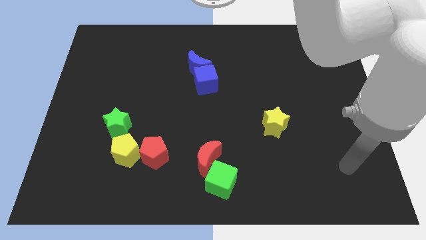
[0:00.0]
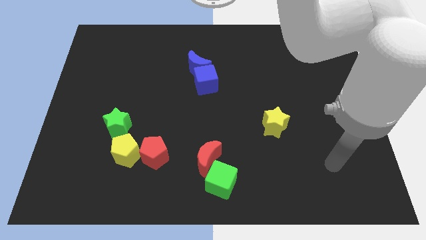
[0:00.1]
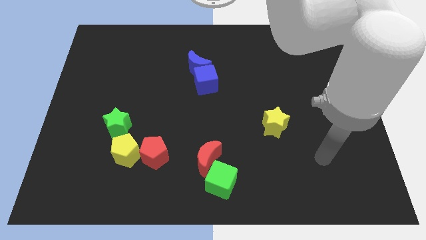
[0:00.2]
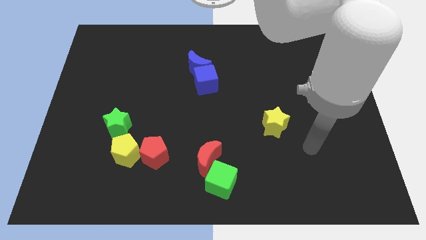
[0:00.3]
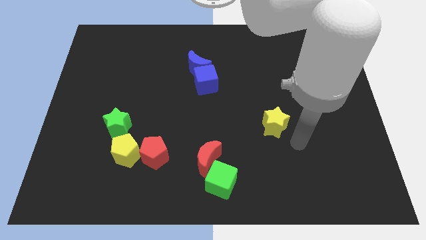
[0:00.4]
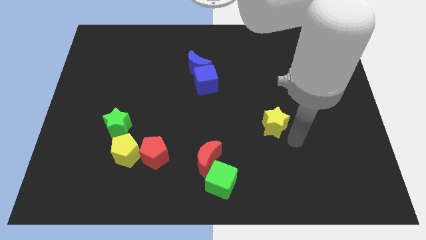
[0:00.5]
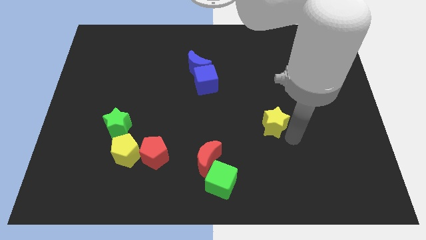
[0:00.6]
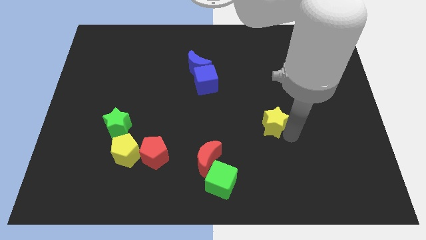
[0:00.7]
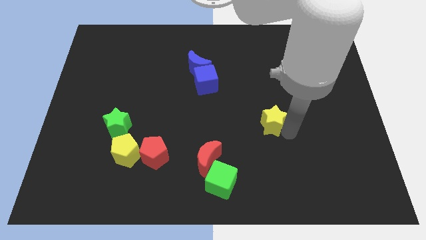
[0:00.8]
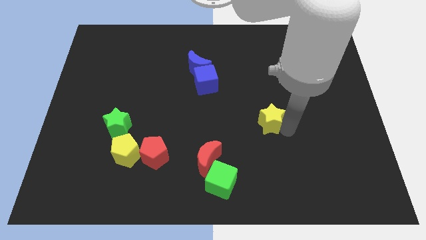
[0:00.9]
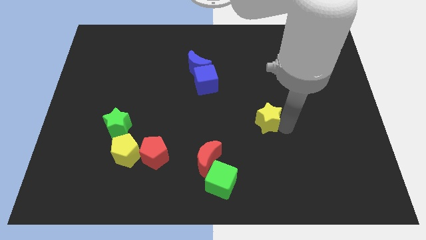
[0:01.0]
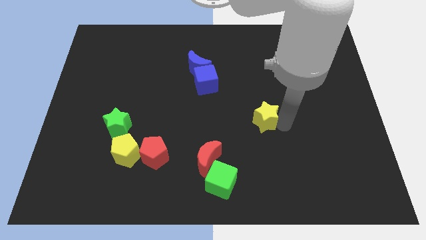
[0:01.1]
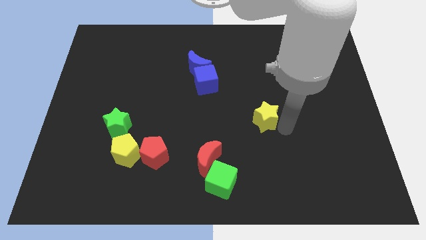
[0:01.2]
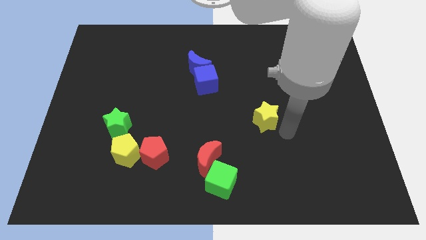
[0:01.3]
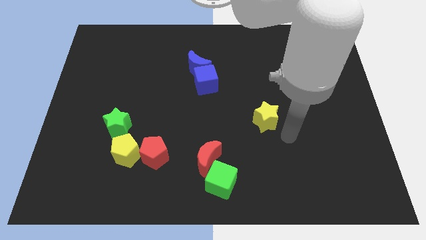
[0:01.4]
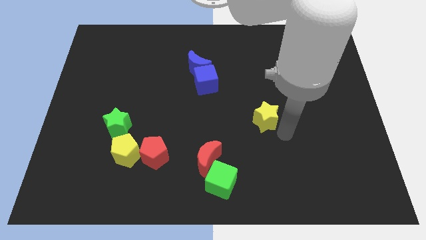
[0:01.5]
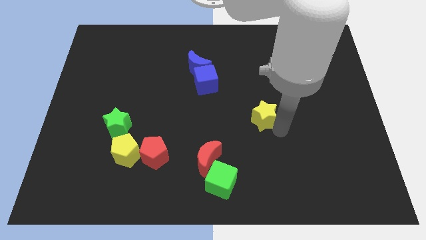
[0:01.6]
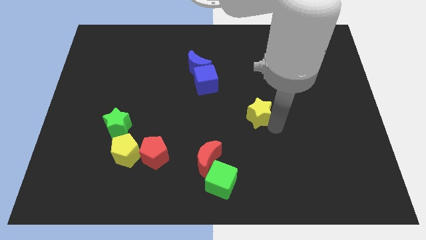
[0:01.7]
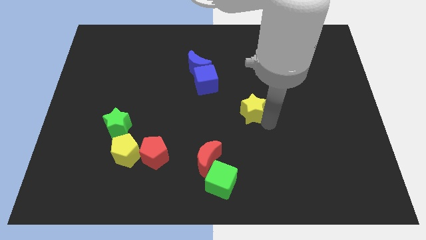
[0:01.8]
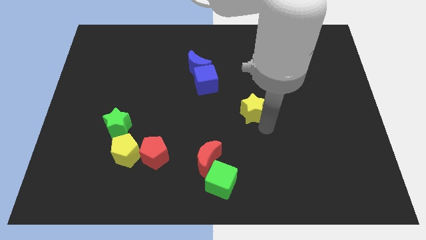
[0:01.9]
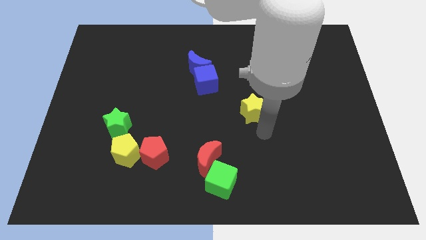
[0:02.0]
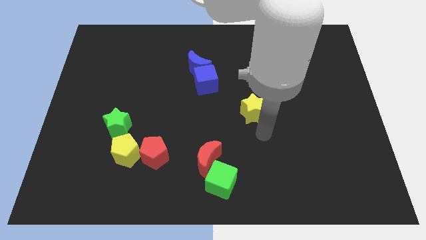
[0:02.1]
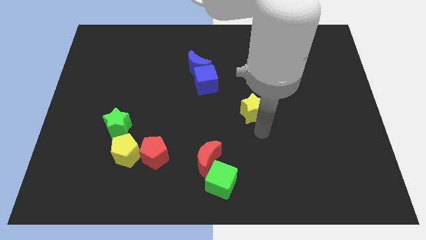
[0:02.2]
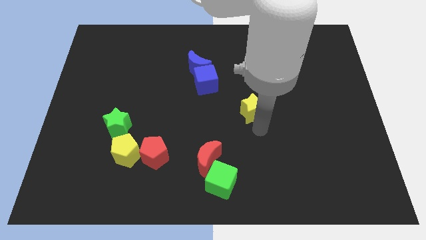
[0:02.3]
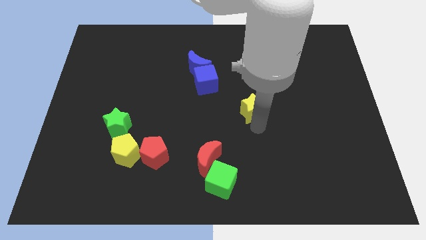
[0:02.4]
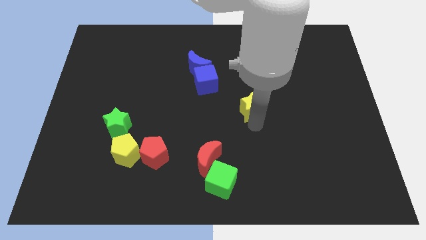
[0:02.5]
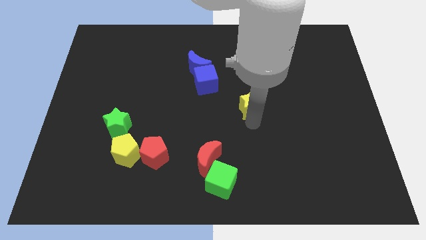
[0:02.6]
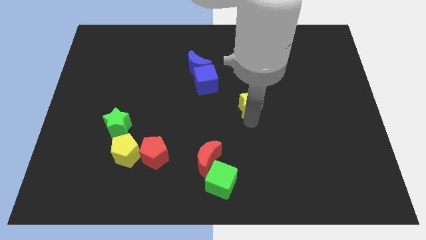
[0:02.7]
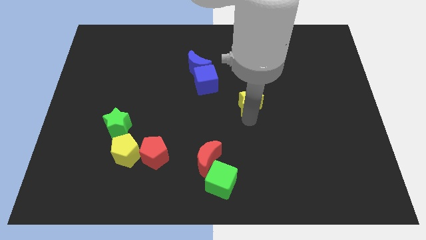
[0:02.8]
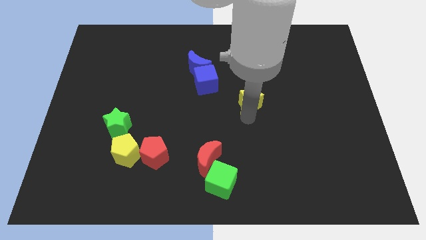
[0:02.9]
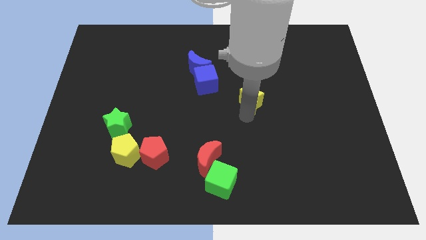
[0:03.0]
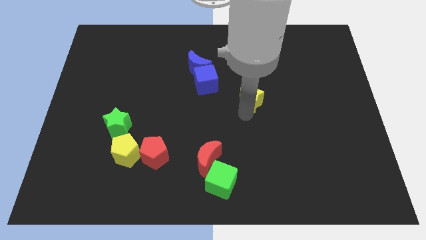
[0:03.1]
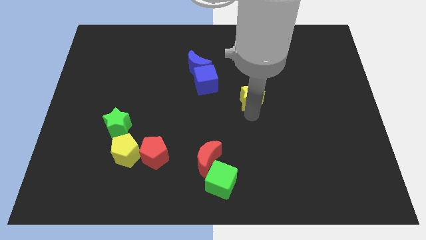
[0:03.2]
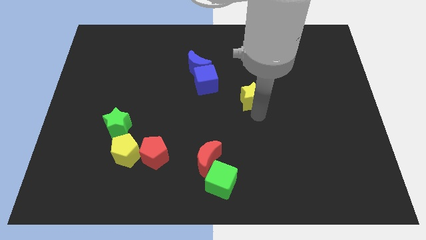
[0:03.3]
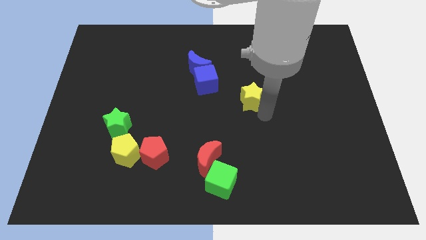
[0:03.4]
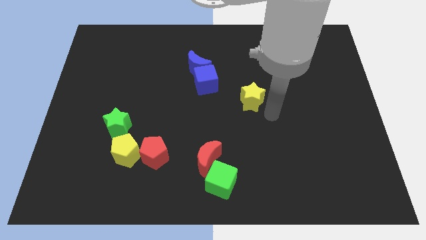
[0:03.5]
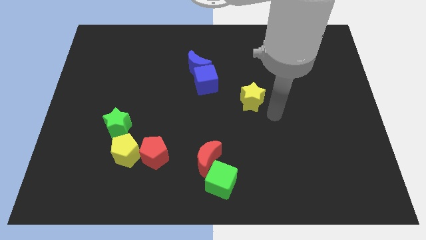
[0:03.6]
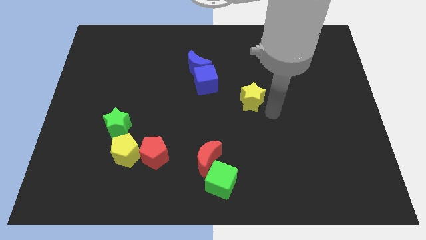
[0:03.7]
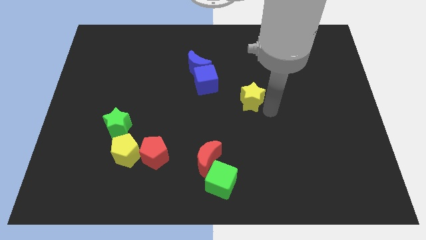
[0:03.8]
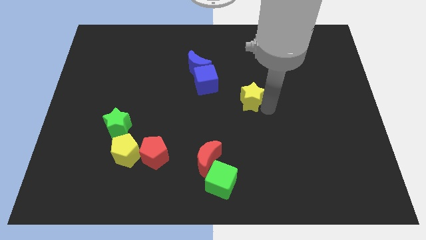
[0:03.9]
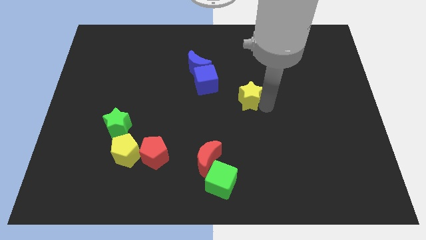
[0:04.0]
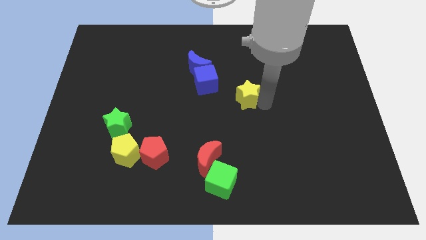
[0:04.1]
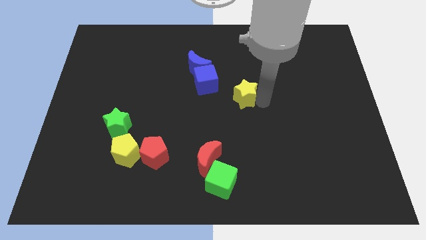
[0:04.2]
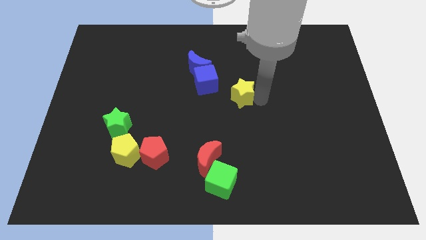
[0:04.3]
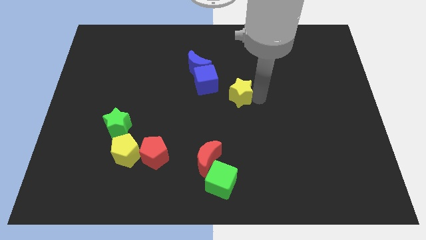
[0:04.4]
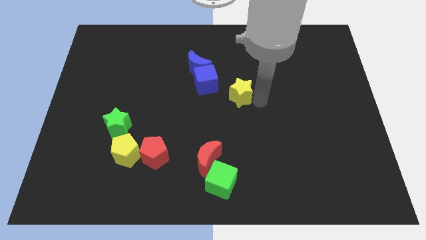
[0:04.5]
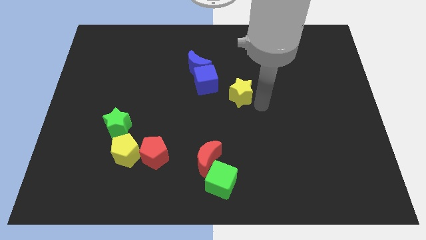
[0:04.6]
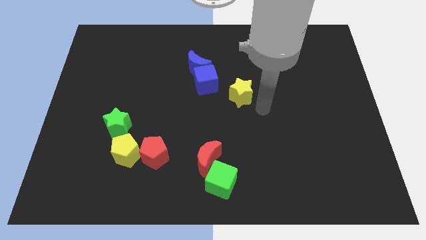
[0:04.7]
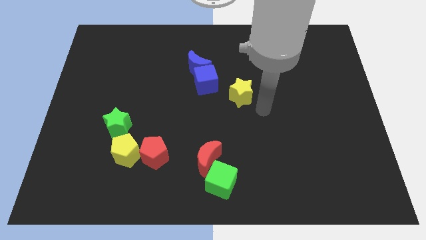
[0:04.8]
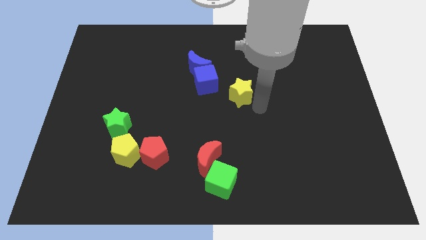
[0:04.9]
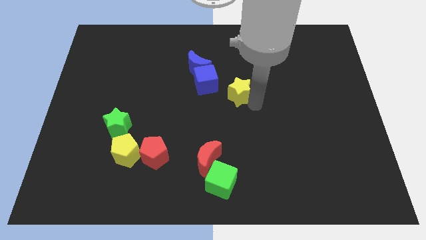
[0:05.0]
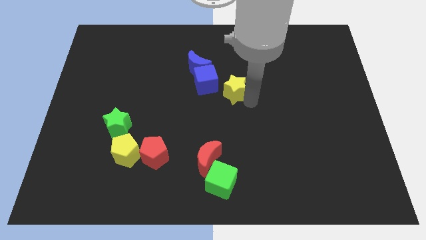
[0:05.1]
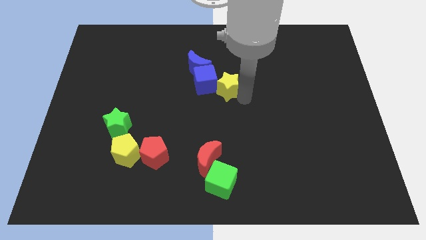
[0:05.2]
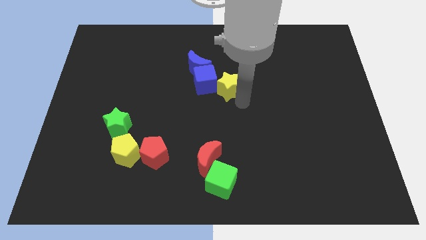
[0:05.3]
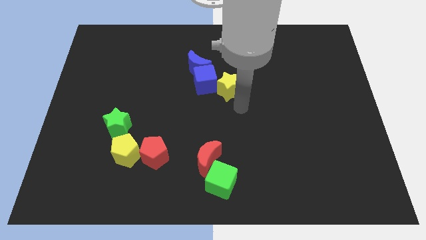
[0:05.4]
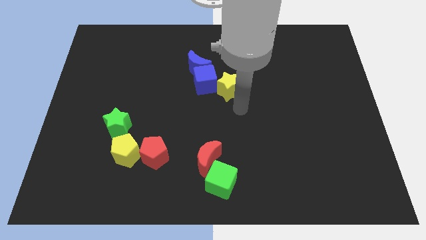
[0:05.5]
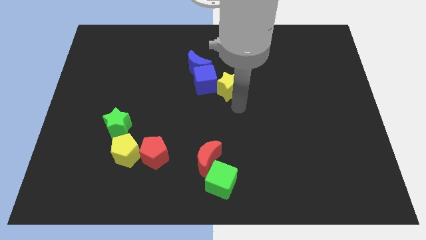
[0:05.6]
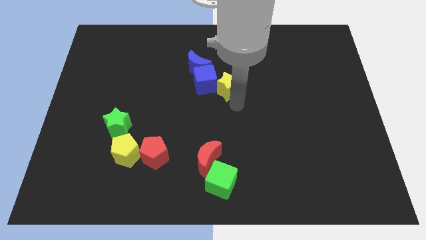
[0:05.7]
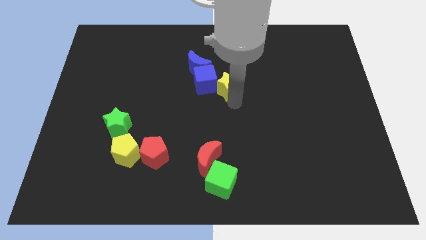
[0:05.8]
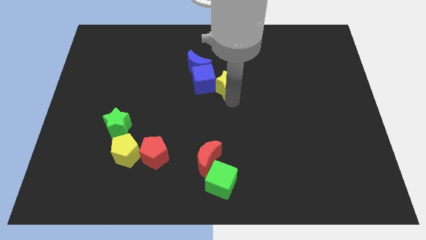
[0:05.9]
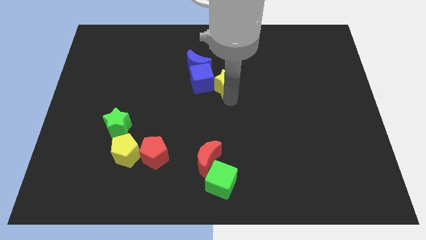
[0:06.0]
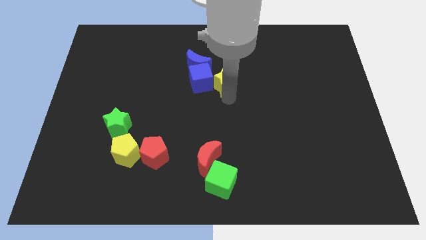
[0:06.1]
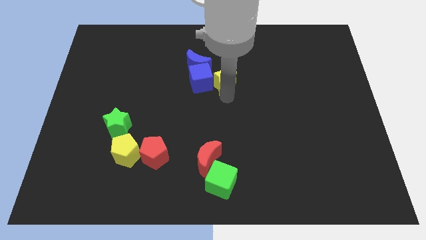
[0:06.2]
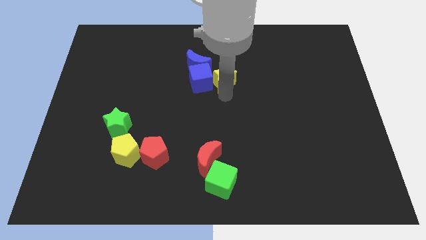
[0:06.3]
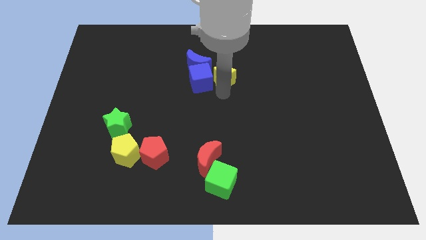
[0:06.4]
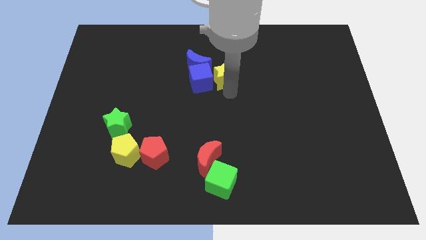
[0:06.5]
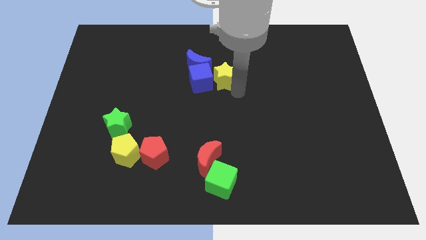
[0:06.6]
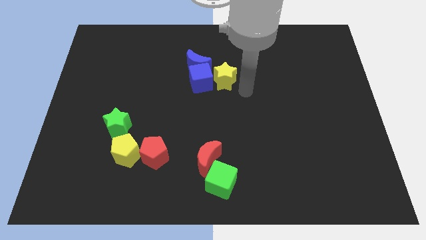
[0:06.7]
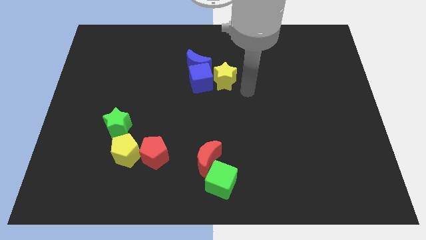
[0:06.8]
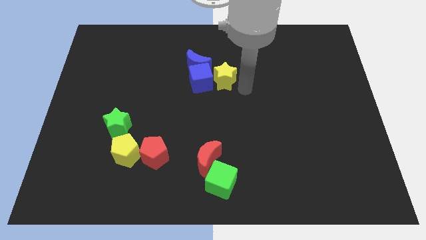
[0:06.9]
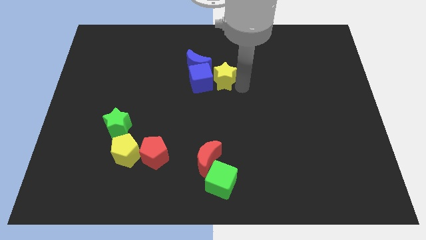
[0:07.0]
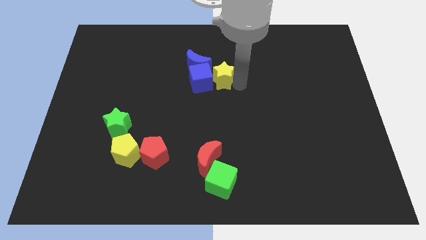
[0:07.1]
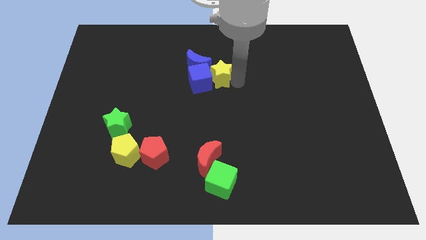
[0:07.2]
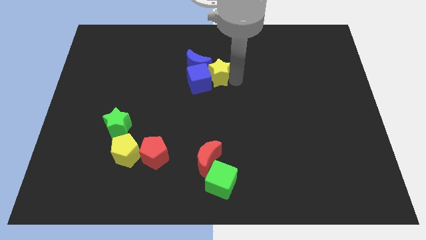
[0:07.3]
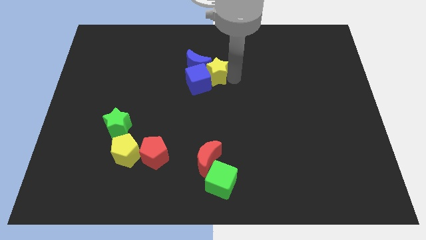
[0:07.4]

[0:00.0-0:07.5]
move the yellow star to the blue moon

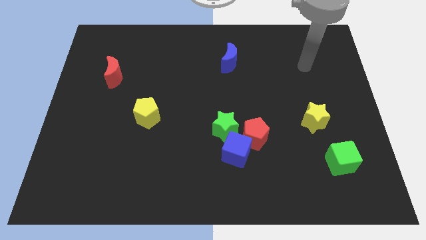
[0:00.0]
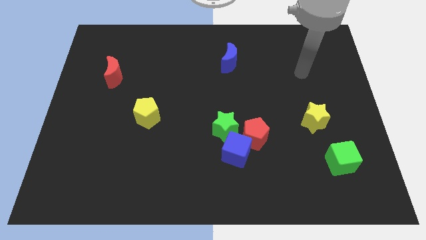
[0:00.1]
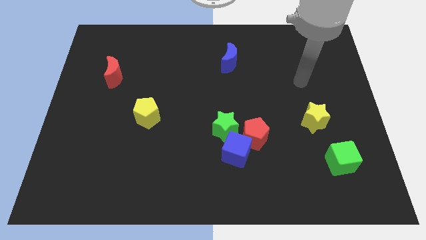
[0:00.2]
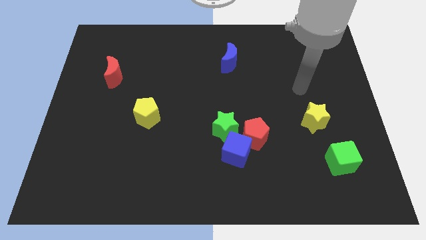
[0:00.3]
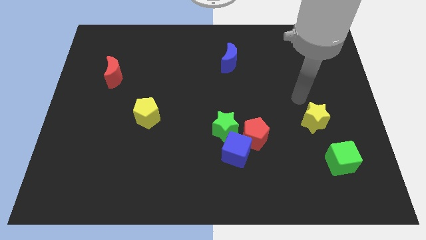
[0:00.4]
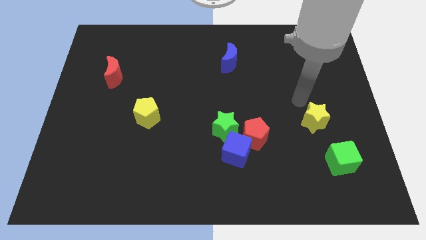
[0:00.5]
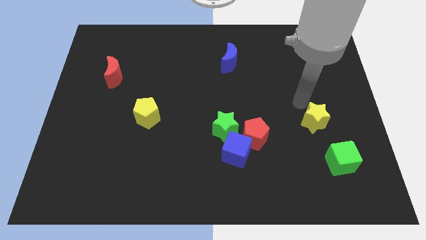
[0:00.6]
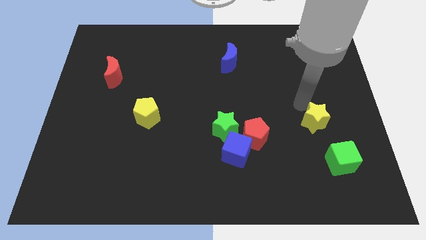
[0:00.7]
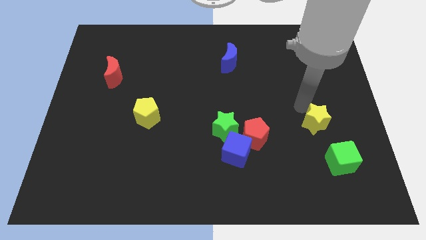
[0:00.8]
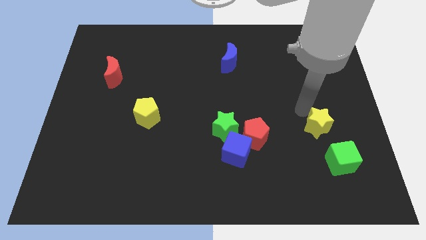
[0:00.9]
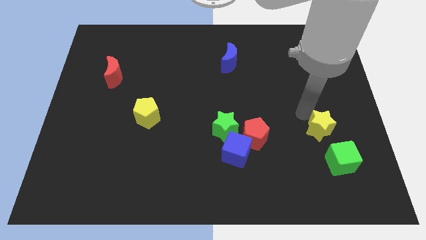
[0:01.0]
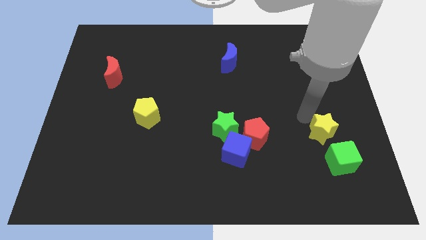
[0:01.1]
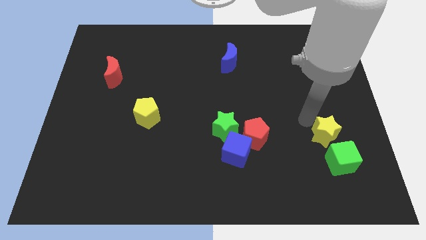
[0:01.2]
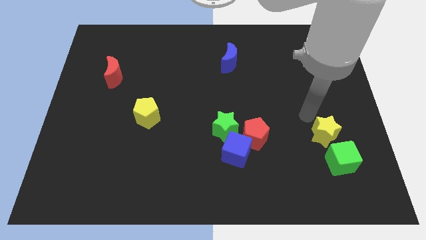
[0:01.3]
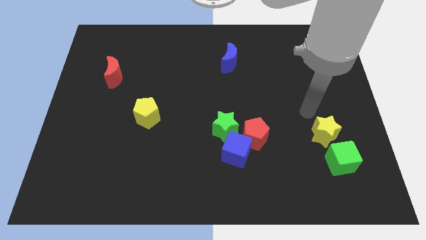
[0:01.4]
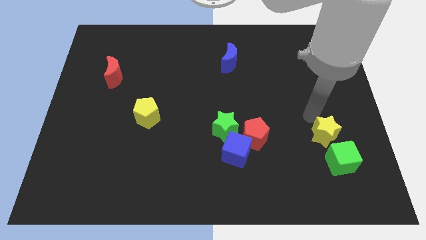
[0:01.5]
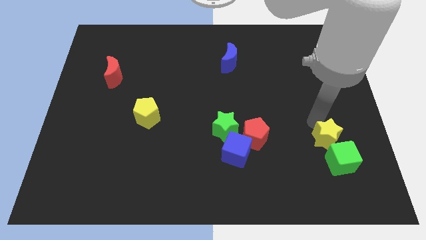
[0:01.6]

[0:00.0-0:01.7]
slide the yellow star towards the green cube
